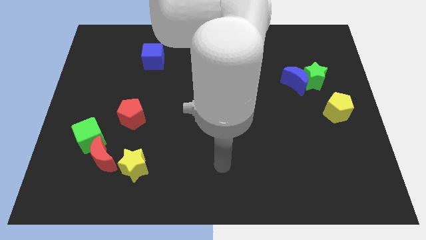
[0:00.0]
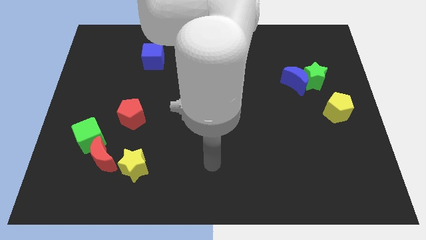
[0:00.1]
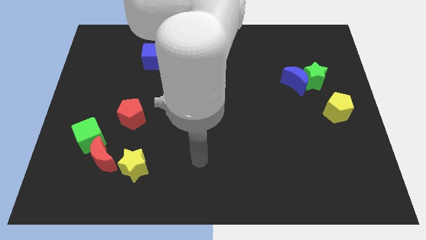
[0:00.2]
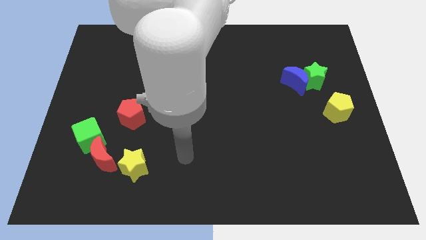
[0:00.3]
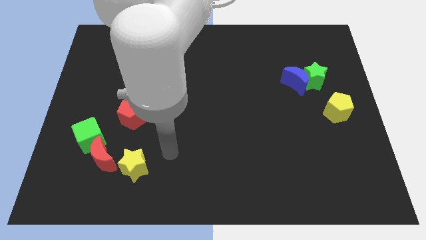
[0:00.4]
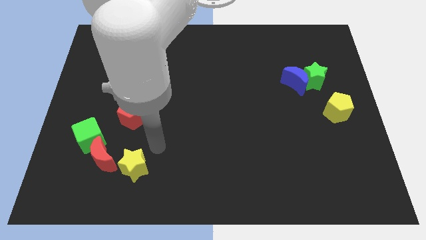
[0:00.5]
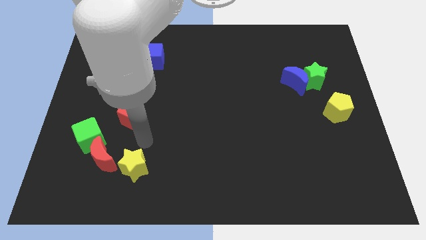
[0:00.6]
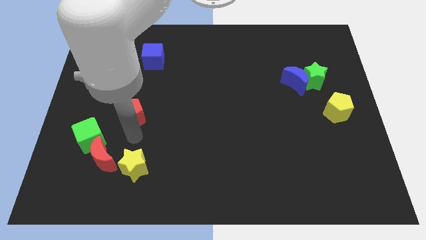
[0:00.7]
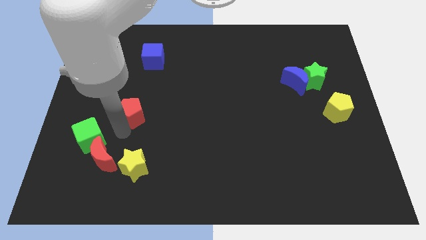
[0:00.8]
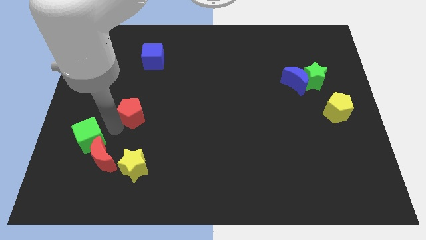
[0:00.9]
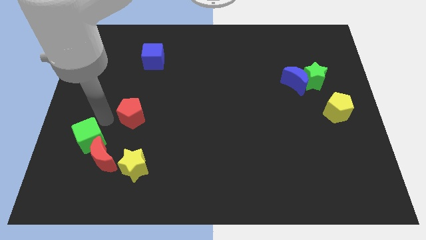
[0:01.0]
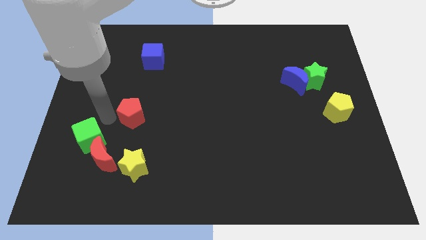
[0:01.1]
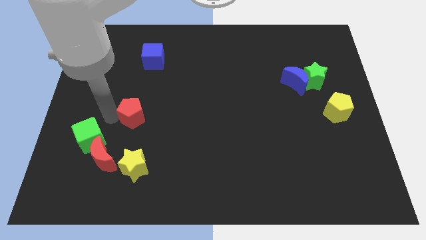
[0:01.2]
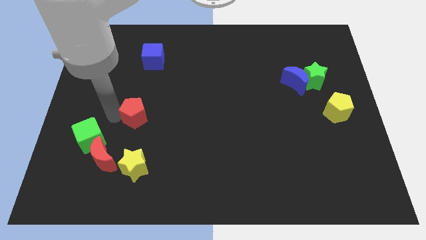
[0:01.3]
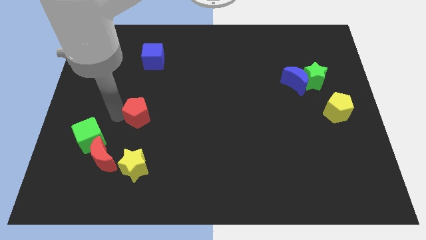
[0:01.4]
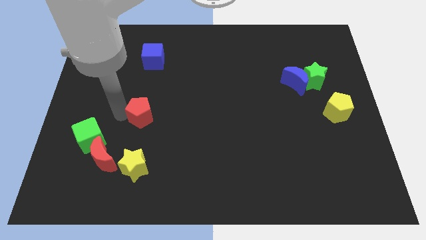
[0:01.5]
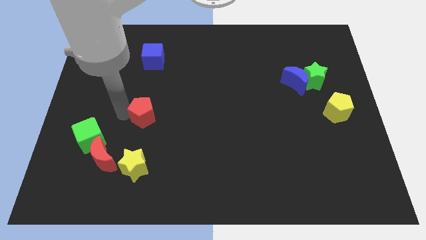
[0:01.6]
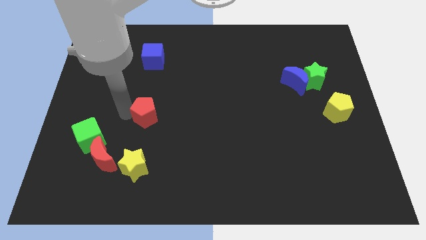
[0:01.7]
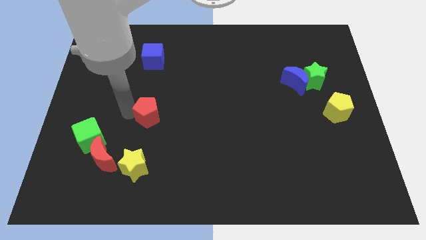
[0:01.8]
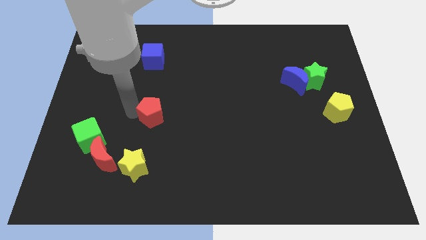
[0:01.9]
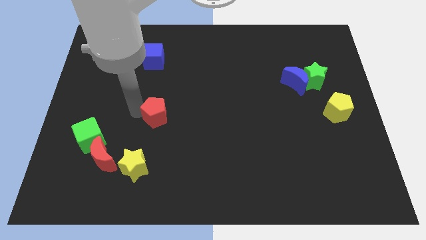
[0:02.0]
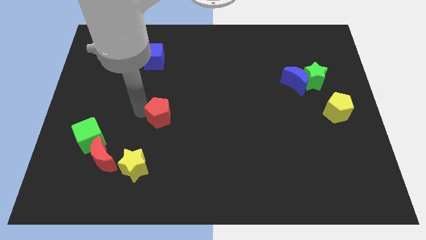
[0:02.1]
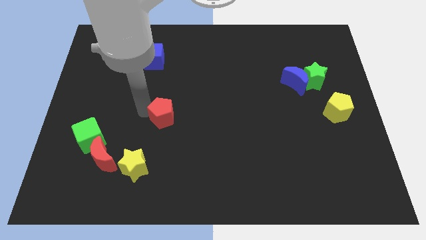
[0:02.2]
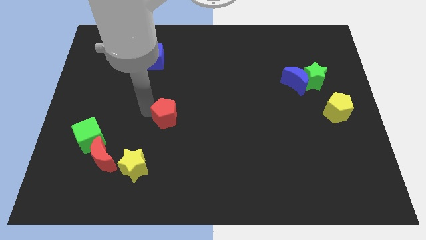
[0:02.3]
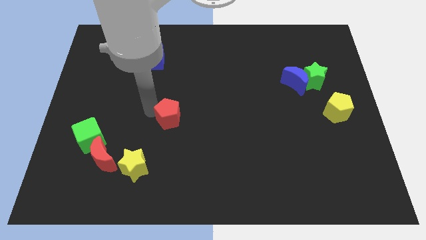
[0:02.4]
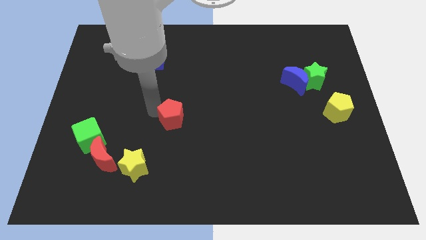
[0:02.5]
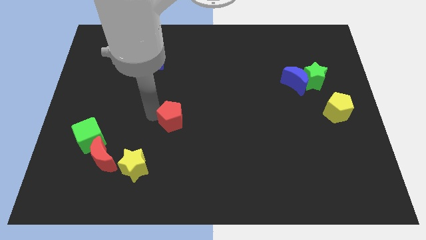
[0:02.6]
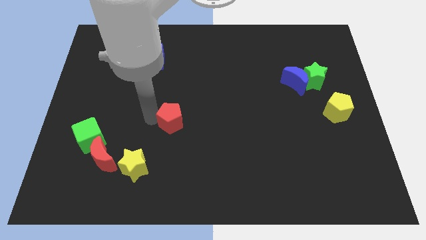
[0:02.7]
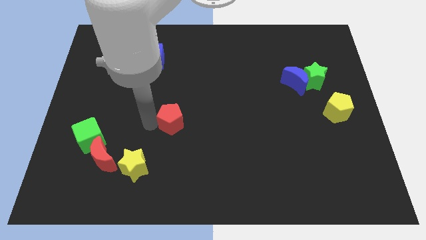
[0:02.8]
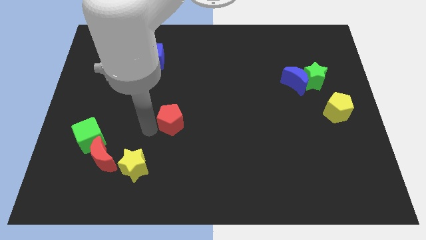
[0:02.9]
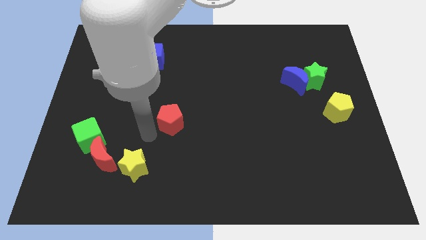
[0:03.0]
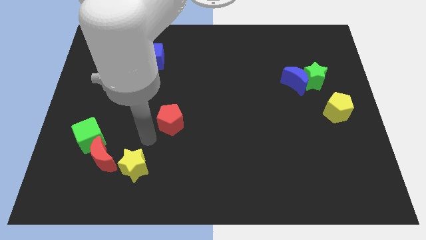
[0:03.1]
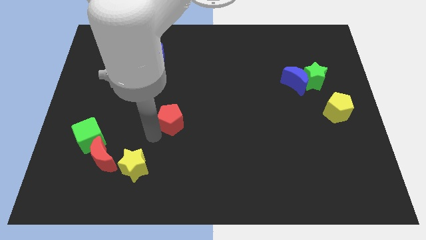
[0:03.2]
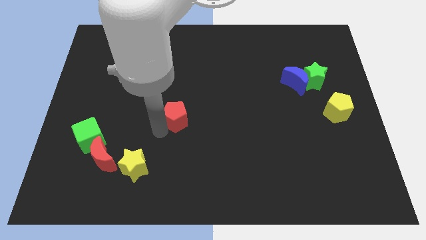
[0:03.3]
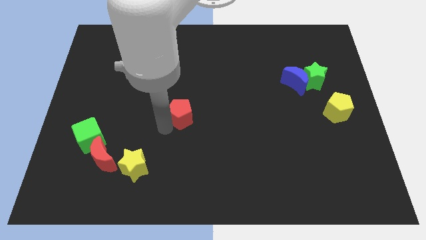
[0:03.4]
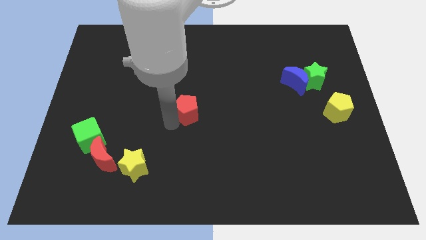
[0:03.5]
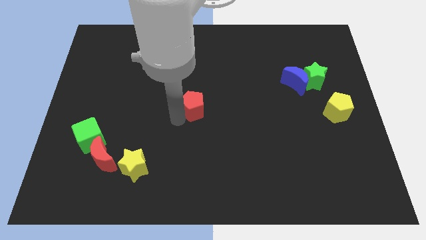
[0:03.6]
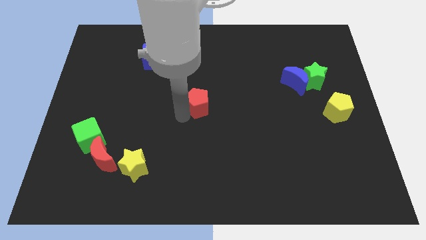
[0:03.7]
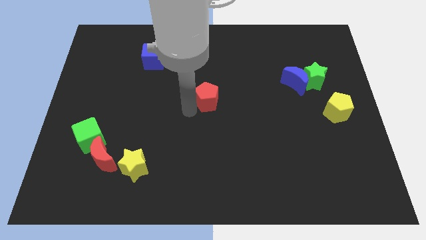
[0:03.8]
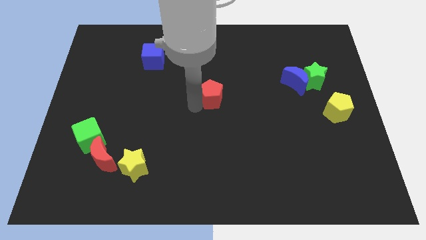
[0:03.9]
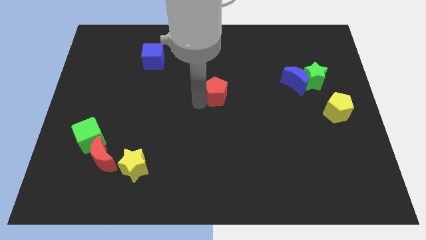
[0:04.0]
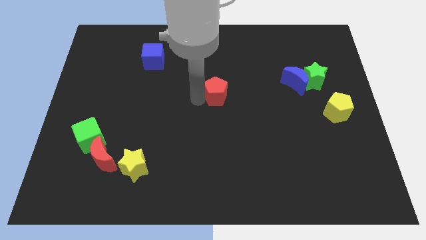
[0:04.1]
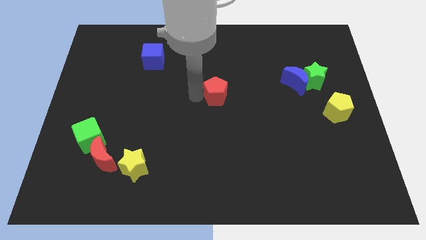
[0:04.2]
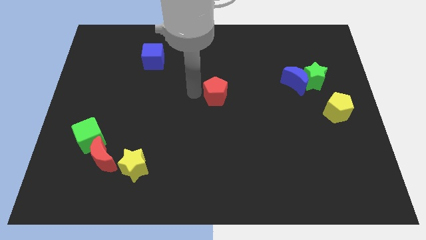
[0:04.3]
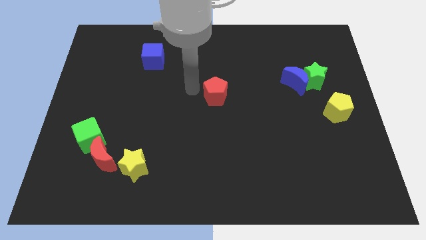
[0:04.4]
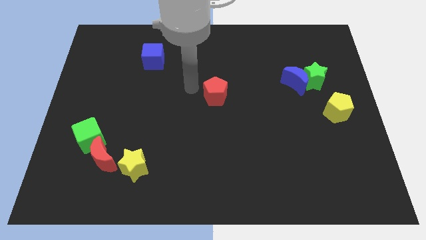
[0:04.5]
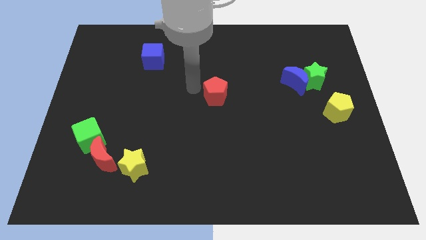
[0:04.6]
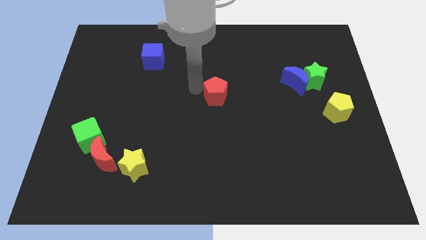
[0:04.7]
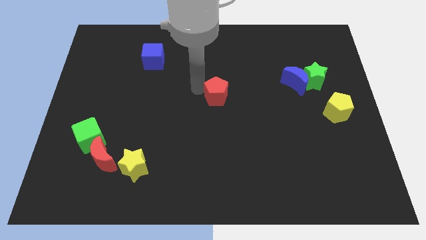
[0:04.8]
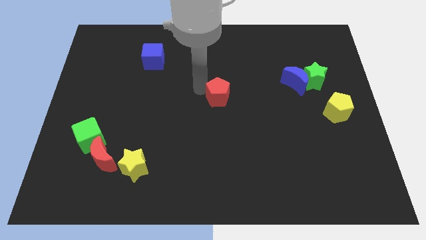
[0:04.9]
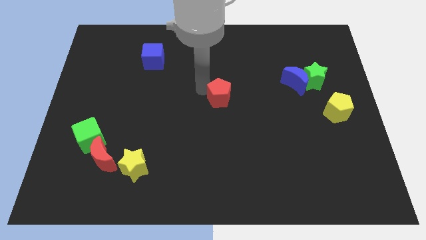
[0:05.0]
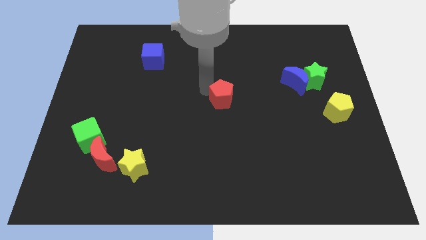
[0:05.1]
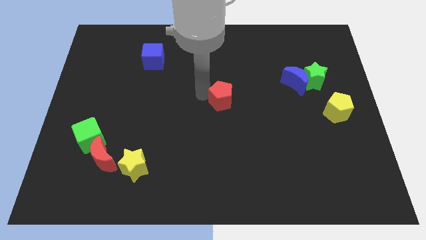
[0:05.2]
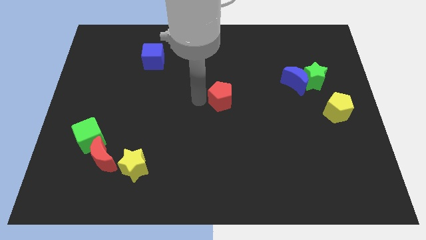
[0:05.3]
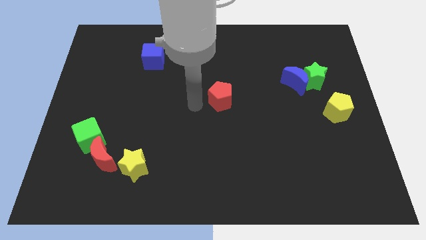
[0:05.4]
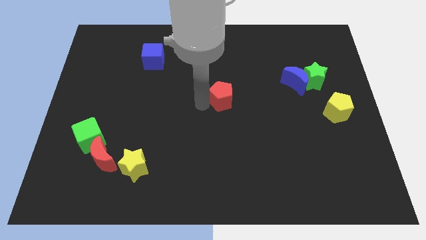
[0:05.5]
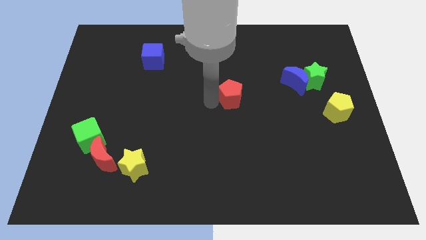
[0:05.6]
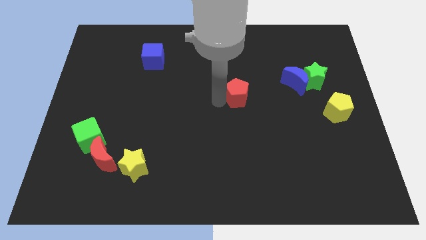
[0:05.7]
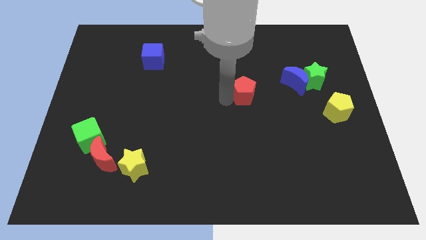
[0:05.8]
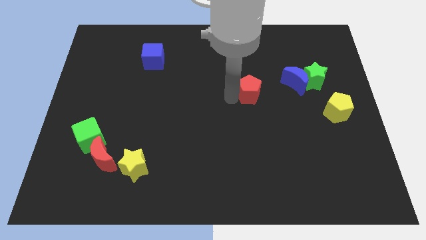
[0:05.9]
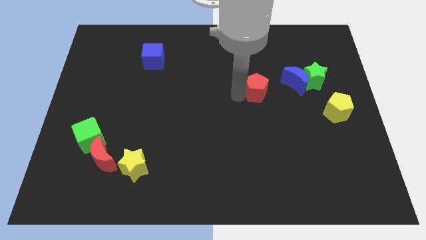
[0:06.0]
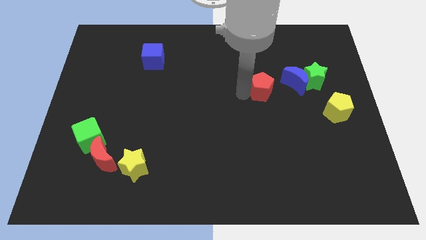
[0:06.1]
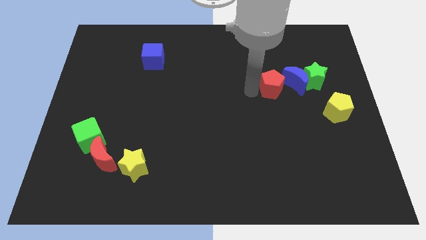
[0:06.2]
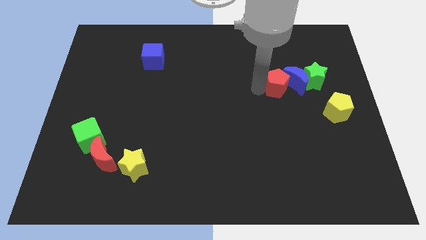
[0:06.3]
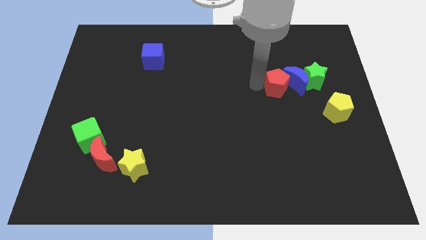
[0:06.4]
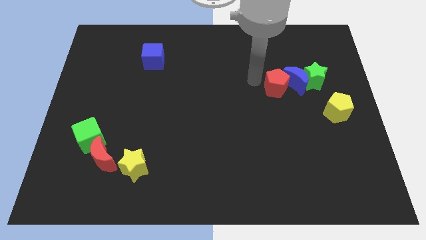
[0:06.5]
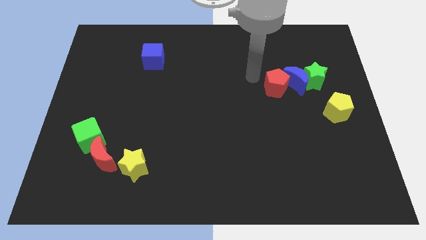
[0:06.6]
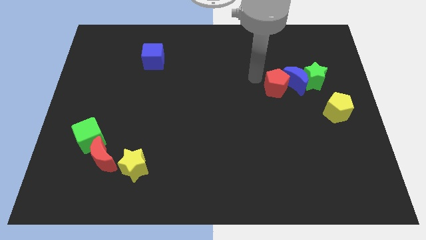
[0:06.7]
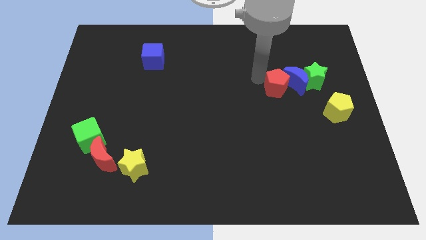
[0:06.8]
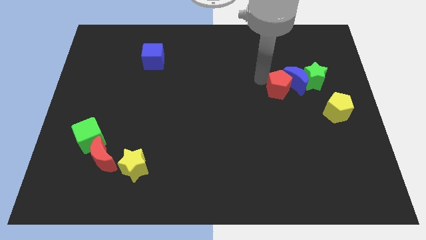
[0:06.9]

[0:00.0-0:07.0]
slide the red pentagon to the bottom left of the green star
